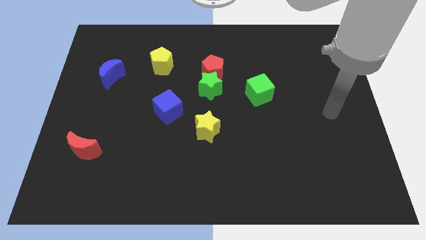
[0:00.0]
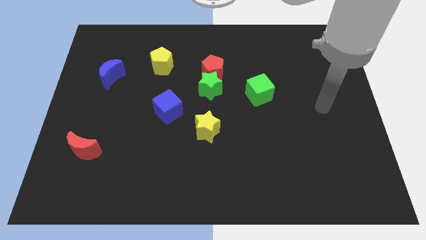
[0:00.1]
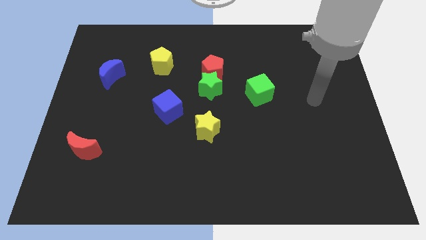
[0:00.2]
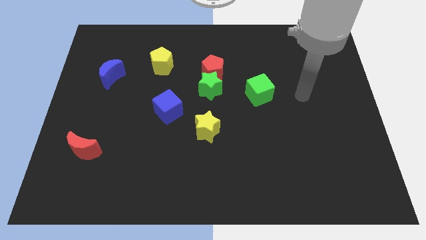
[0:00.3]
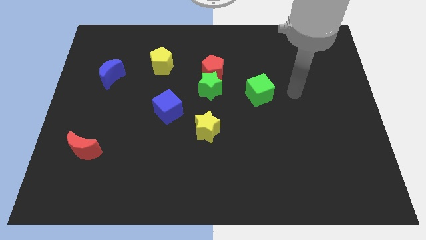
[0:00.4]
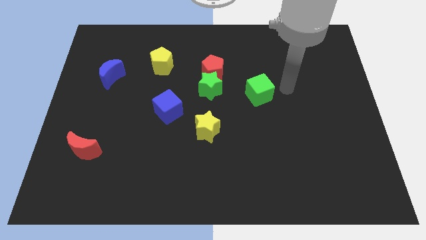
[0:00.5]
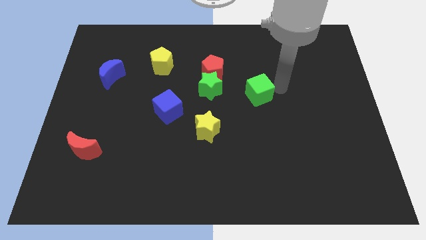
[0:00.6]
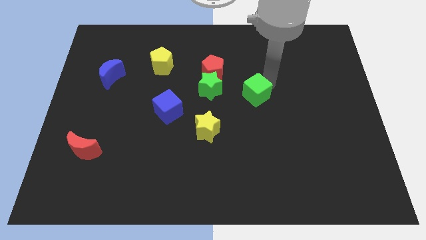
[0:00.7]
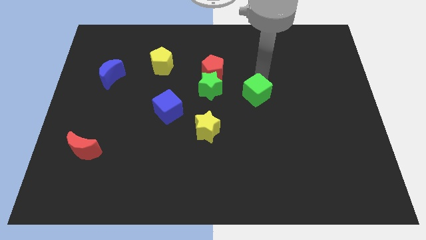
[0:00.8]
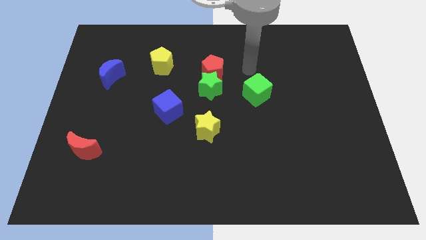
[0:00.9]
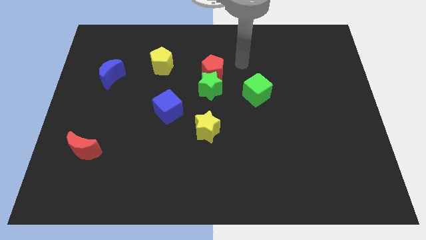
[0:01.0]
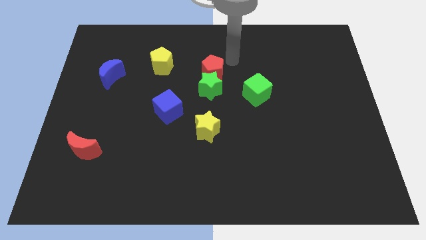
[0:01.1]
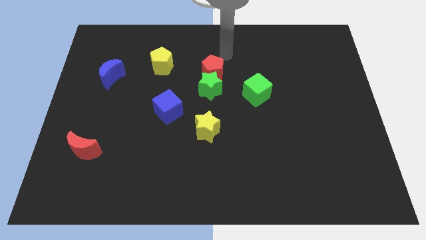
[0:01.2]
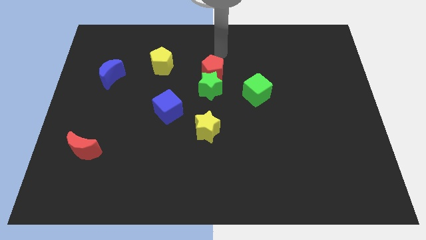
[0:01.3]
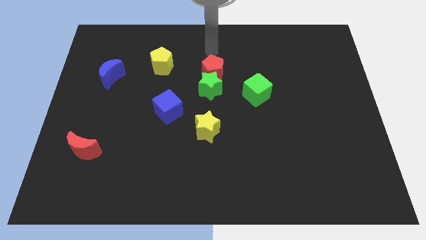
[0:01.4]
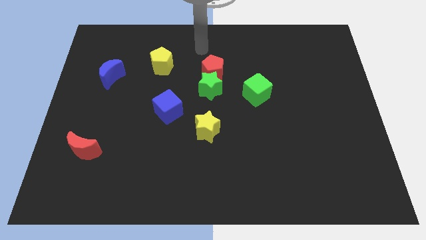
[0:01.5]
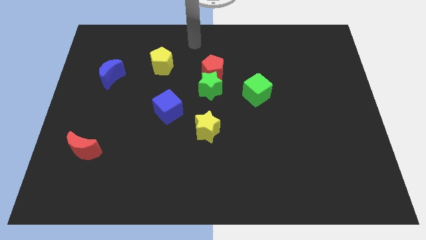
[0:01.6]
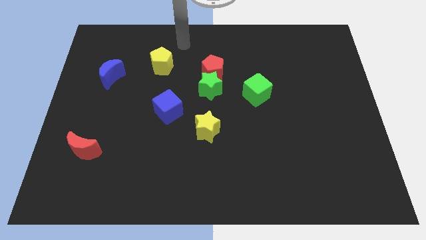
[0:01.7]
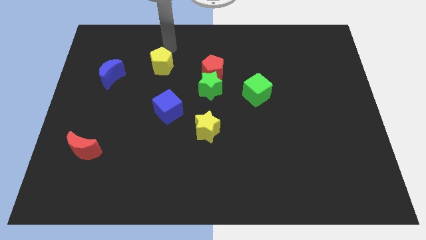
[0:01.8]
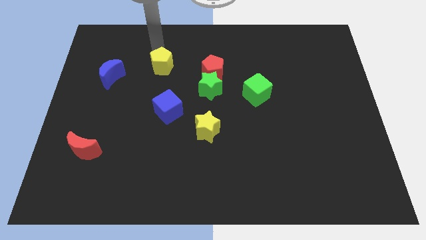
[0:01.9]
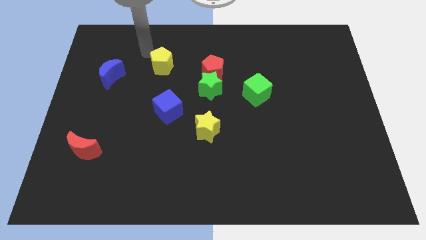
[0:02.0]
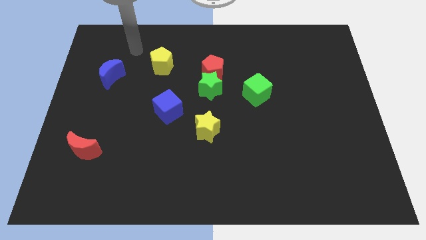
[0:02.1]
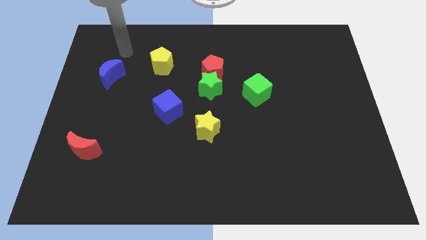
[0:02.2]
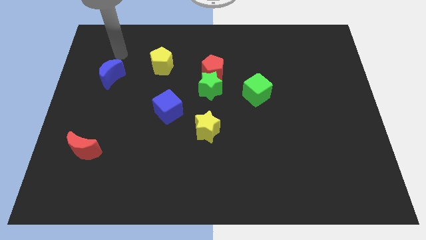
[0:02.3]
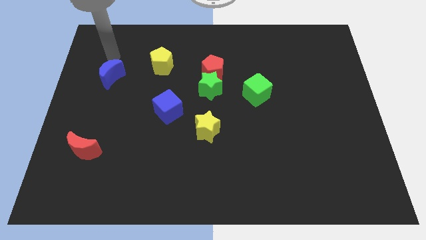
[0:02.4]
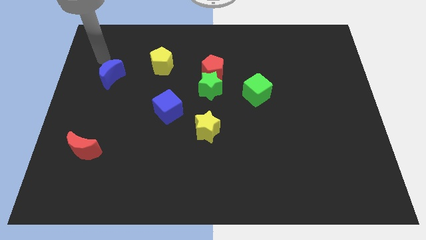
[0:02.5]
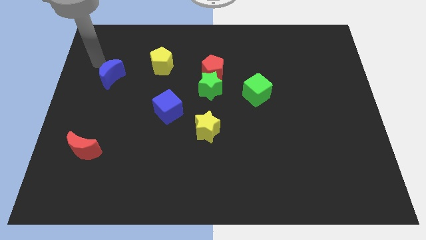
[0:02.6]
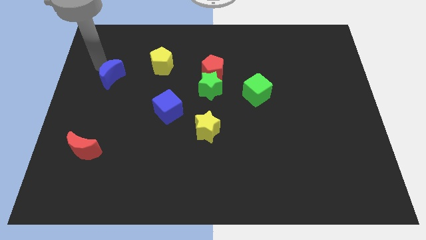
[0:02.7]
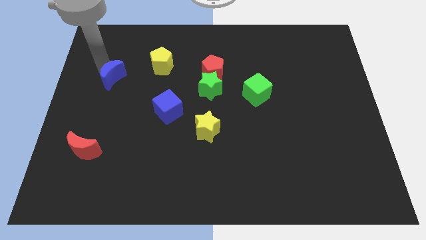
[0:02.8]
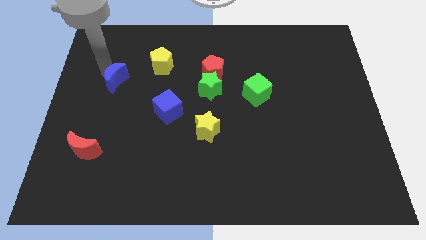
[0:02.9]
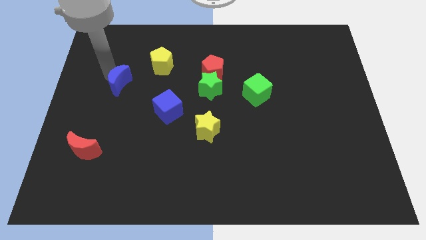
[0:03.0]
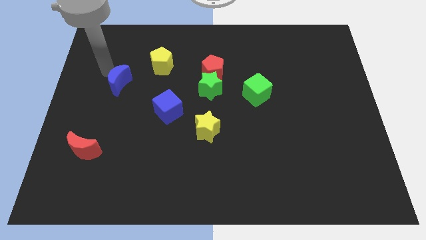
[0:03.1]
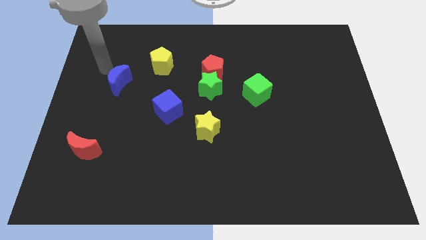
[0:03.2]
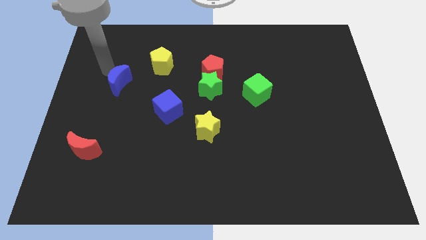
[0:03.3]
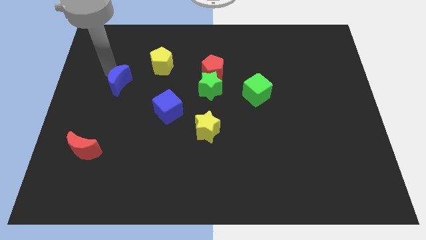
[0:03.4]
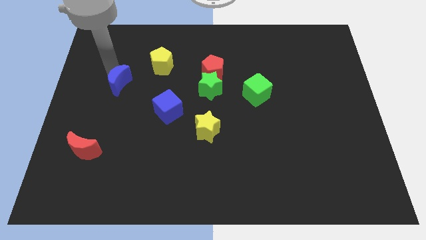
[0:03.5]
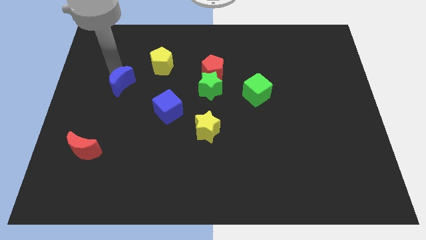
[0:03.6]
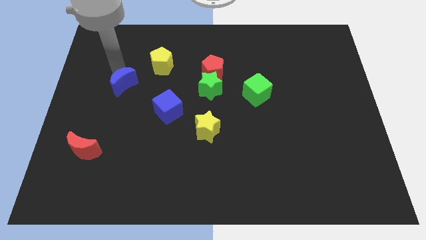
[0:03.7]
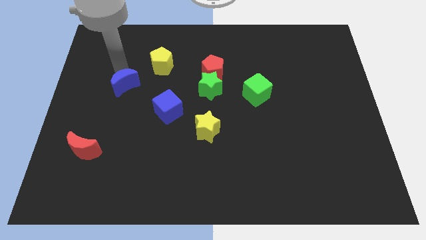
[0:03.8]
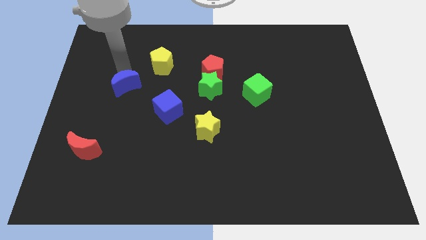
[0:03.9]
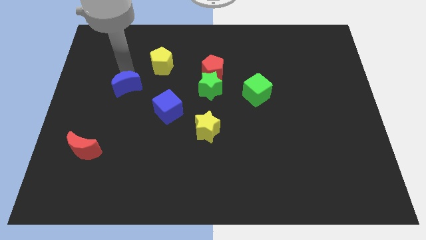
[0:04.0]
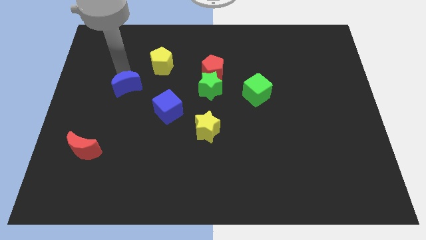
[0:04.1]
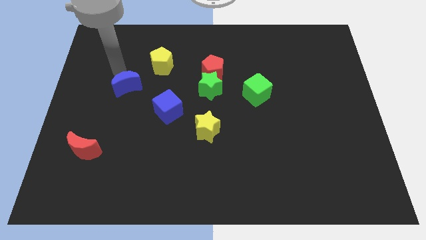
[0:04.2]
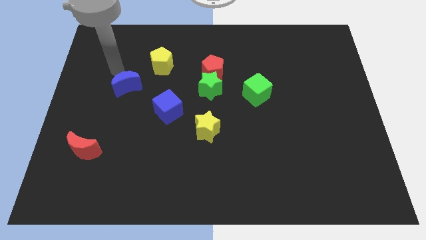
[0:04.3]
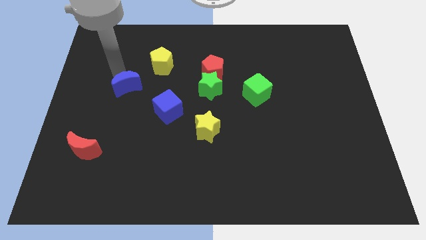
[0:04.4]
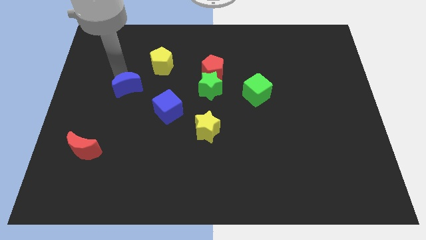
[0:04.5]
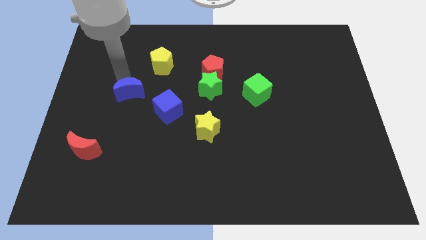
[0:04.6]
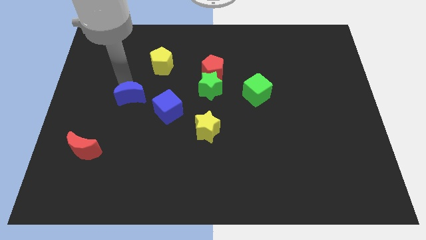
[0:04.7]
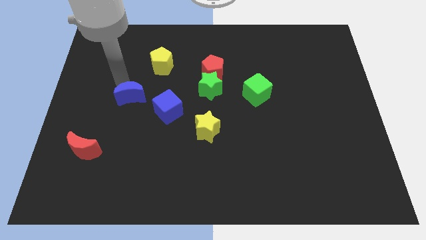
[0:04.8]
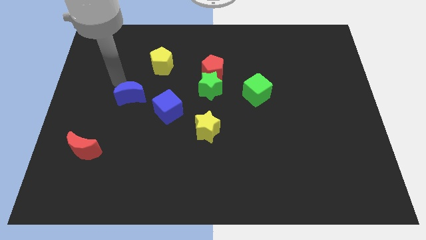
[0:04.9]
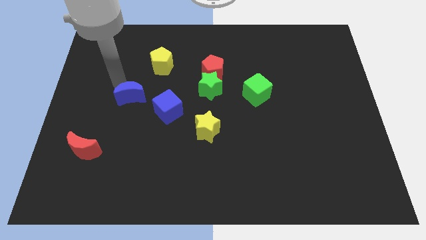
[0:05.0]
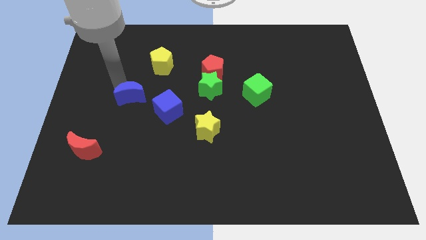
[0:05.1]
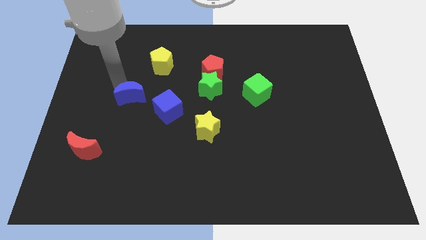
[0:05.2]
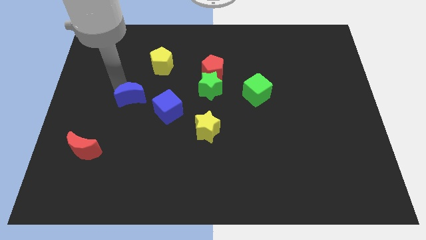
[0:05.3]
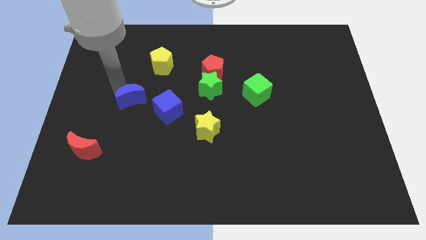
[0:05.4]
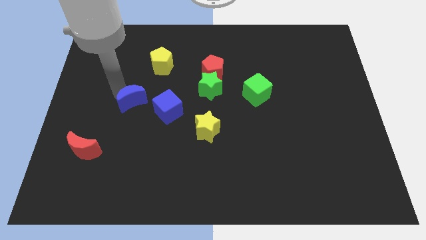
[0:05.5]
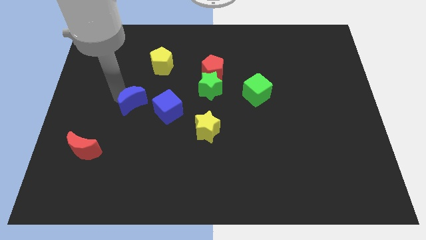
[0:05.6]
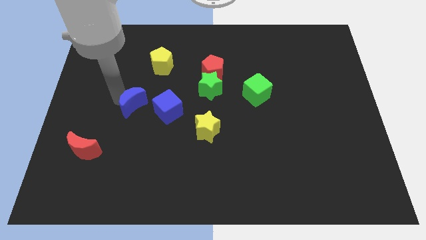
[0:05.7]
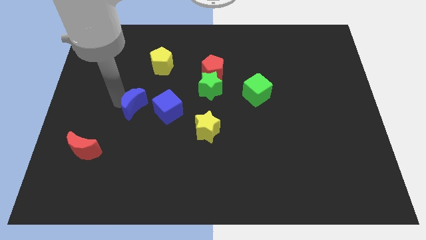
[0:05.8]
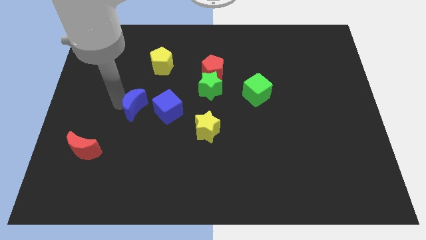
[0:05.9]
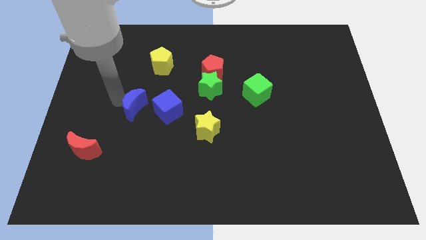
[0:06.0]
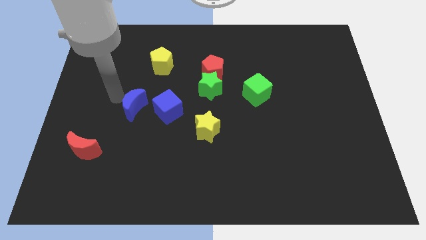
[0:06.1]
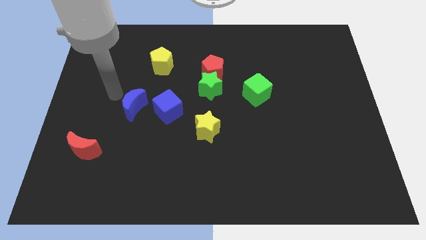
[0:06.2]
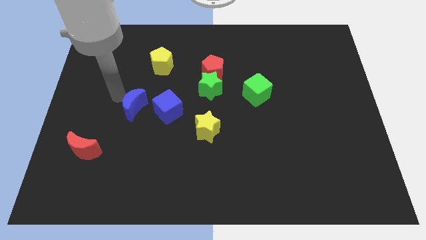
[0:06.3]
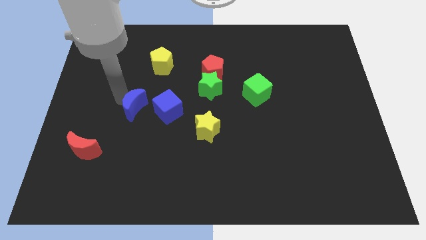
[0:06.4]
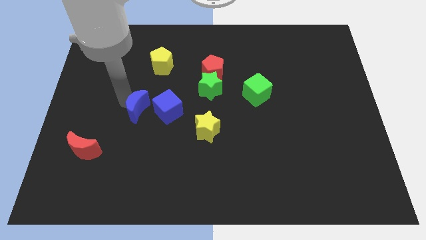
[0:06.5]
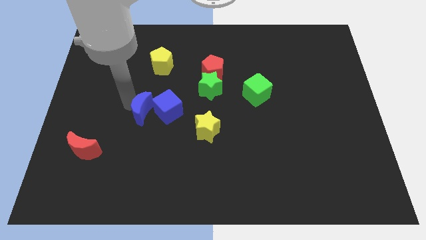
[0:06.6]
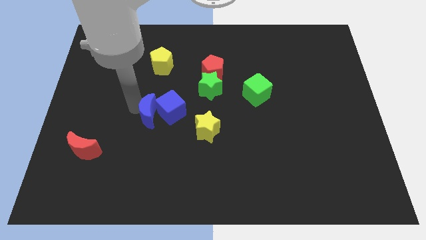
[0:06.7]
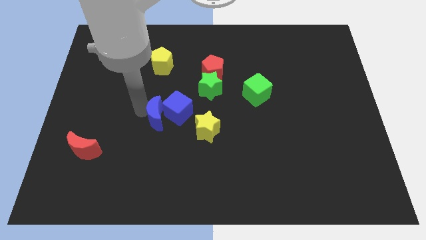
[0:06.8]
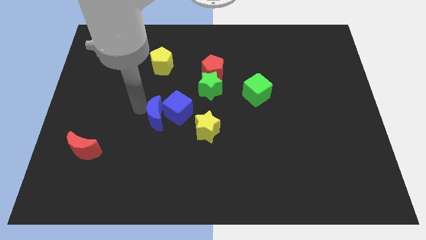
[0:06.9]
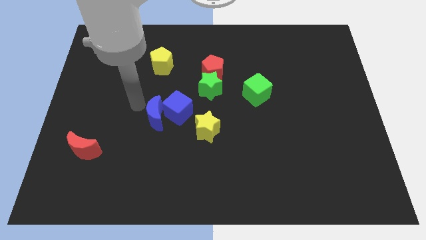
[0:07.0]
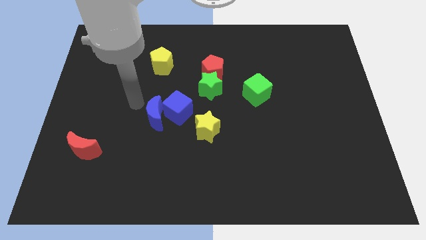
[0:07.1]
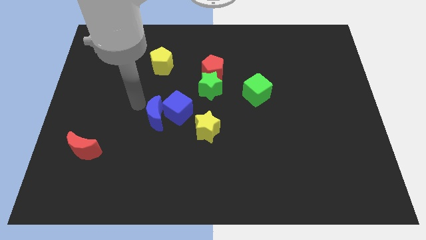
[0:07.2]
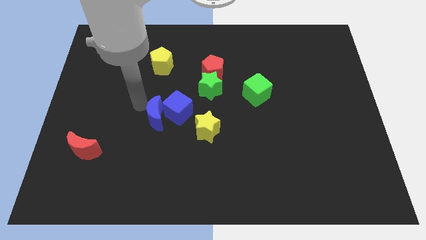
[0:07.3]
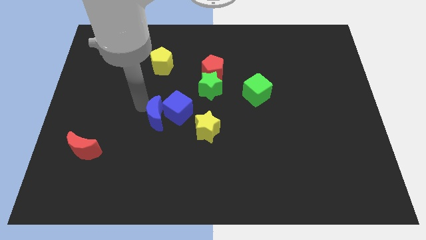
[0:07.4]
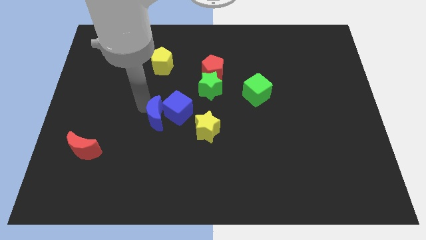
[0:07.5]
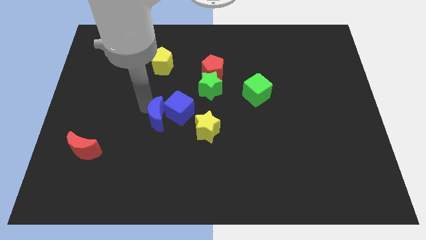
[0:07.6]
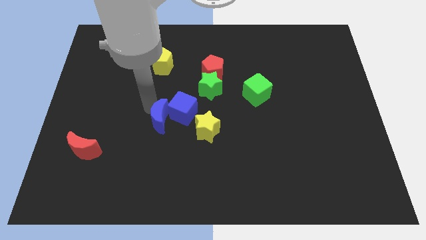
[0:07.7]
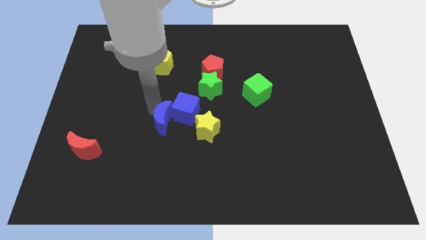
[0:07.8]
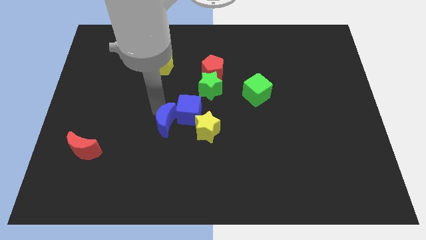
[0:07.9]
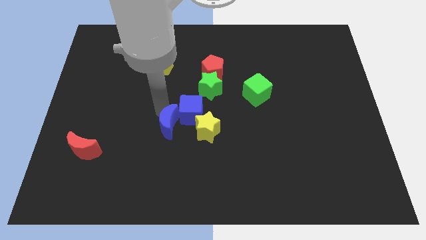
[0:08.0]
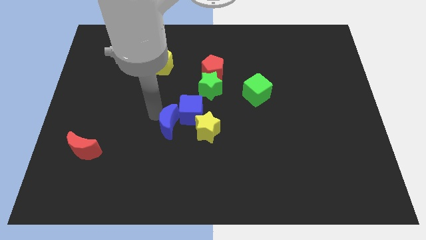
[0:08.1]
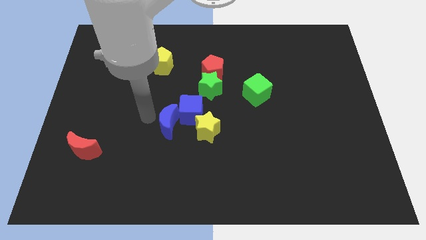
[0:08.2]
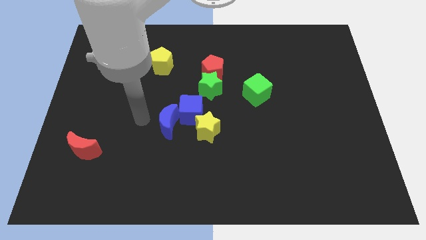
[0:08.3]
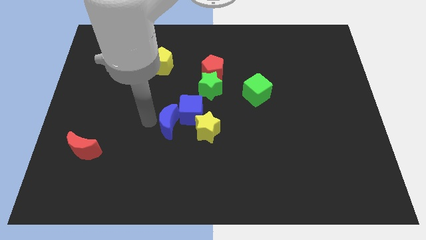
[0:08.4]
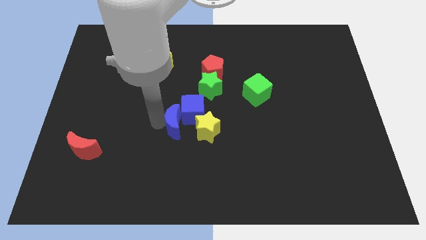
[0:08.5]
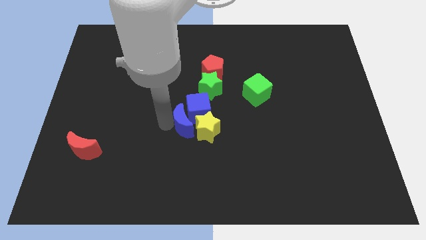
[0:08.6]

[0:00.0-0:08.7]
push the blue moon to the yellow star
